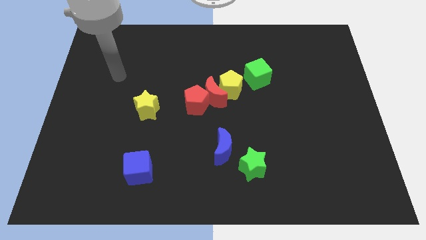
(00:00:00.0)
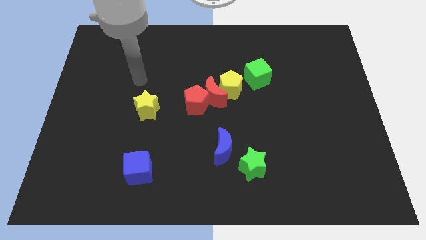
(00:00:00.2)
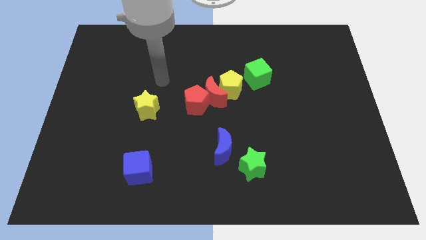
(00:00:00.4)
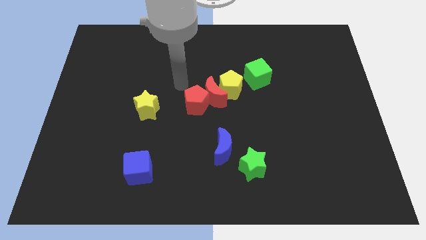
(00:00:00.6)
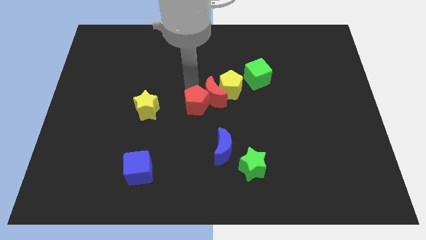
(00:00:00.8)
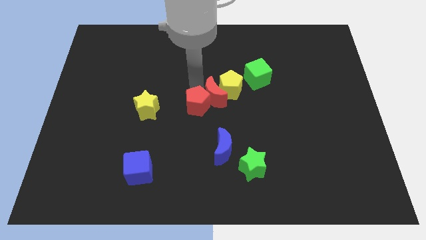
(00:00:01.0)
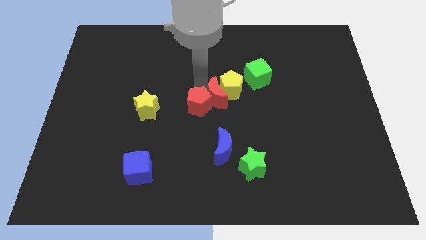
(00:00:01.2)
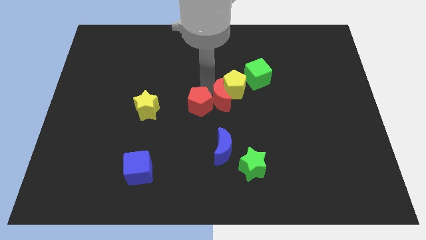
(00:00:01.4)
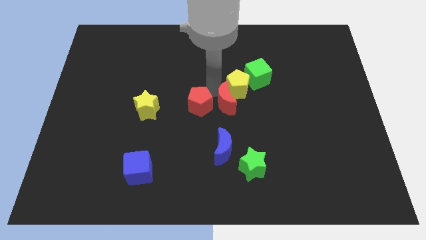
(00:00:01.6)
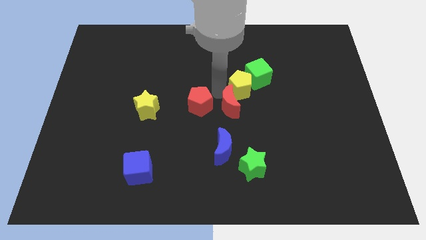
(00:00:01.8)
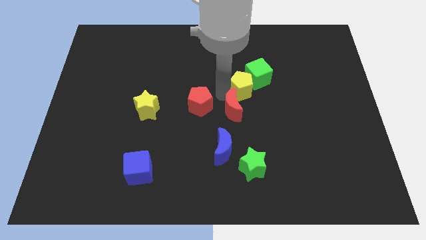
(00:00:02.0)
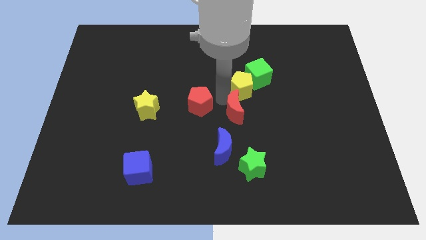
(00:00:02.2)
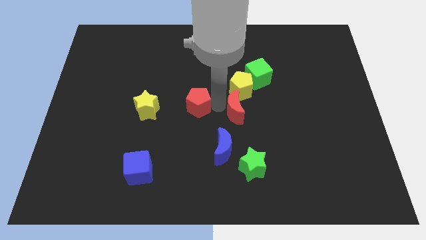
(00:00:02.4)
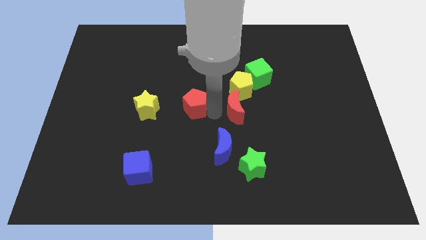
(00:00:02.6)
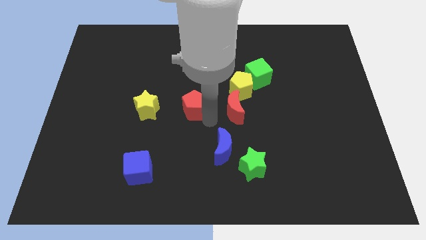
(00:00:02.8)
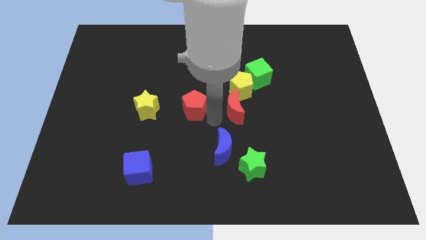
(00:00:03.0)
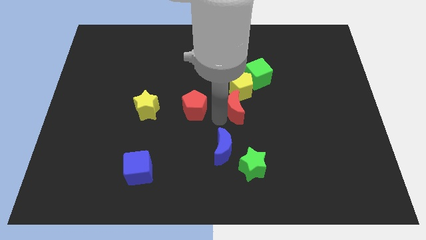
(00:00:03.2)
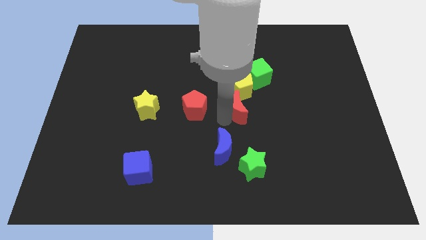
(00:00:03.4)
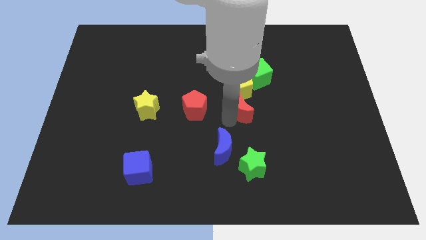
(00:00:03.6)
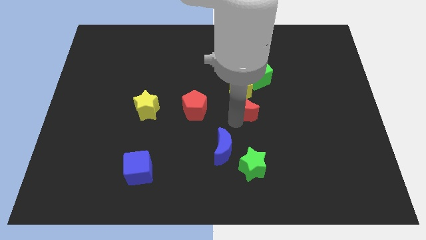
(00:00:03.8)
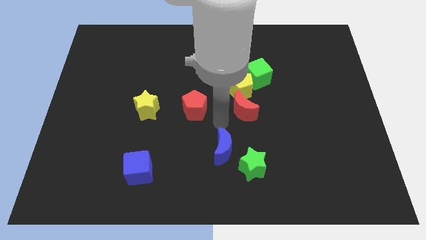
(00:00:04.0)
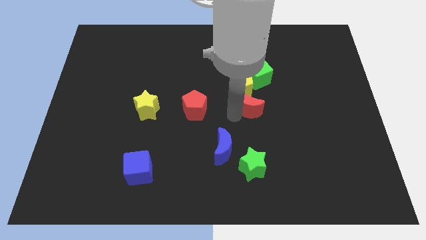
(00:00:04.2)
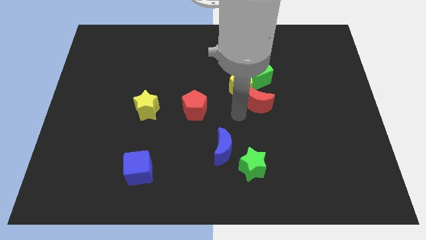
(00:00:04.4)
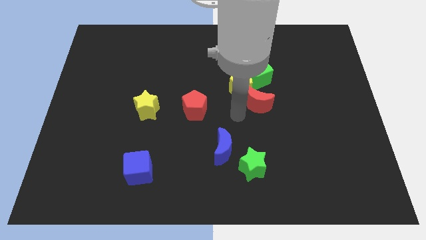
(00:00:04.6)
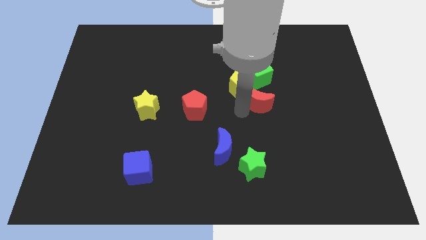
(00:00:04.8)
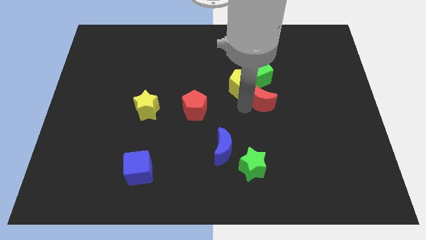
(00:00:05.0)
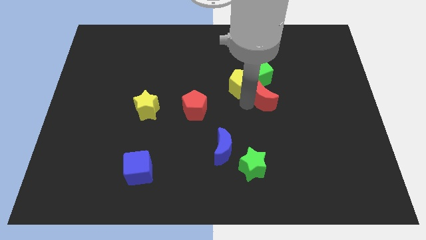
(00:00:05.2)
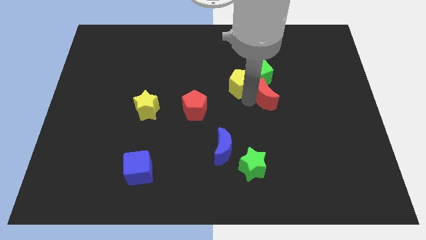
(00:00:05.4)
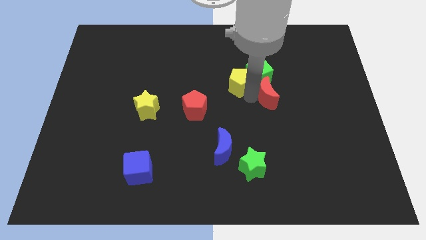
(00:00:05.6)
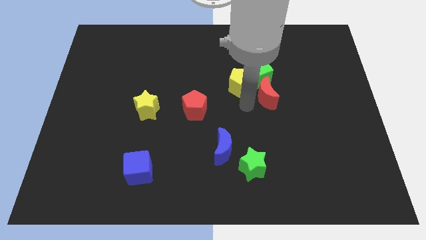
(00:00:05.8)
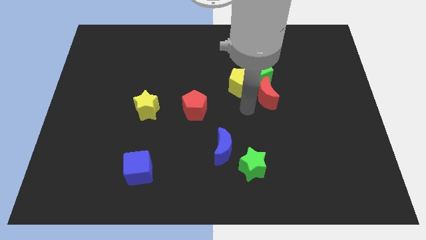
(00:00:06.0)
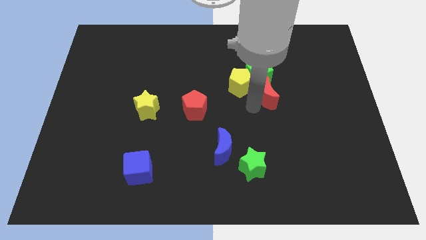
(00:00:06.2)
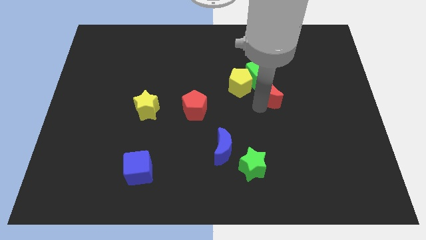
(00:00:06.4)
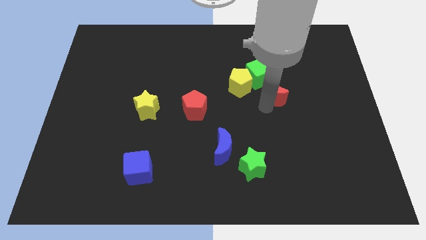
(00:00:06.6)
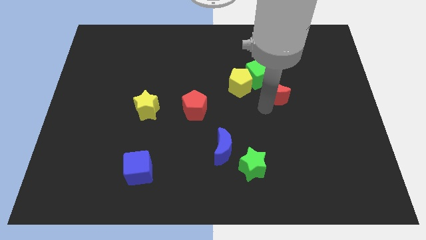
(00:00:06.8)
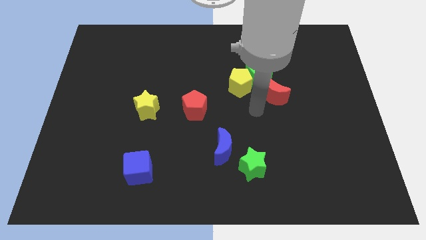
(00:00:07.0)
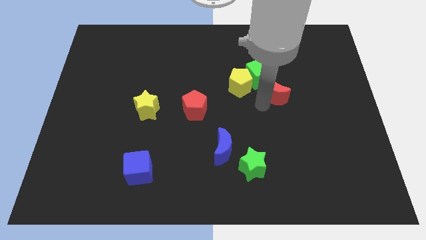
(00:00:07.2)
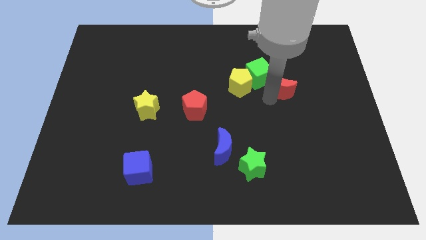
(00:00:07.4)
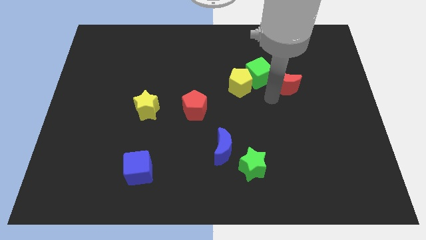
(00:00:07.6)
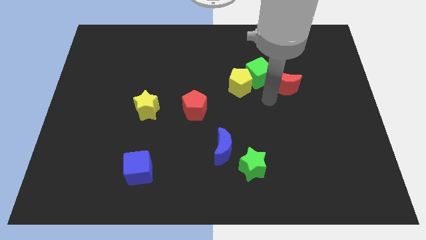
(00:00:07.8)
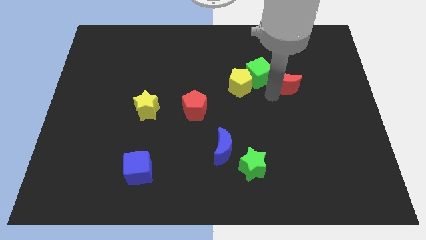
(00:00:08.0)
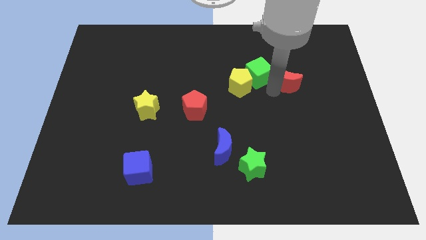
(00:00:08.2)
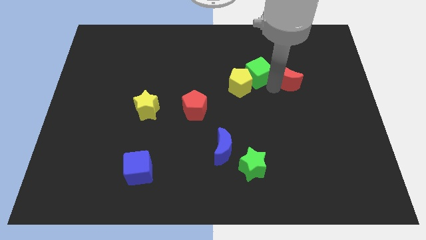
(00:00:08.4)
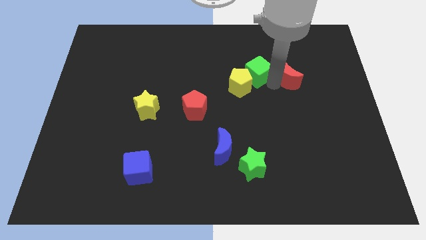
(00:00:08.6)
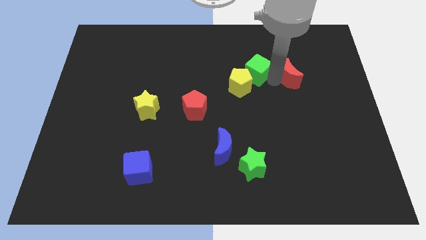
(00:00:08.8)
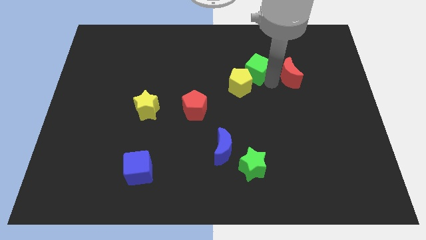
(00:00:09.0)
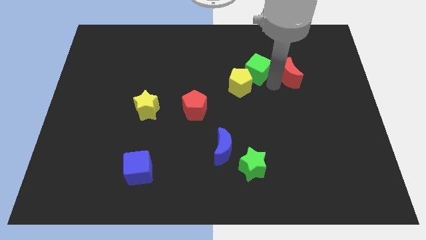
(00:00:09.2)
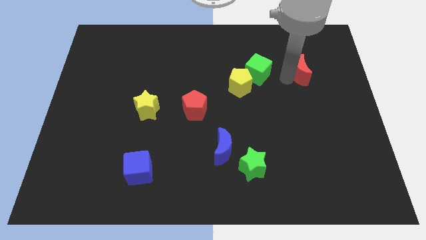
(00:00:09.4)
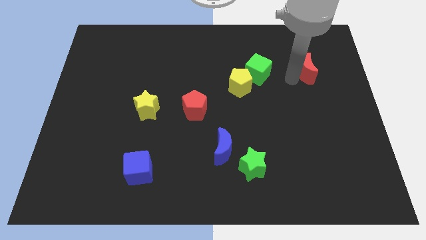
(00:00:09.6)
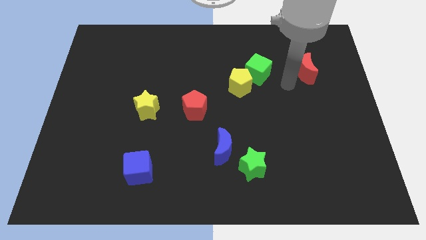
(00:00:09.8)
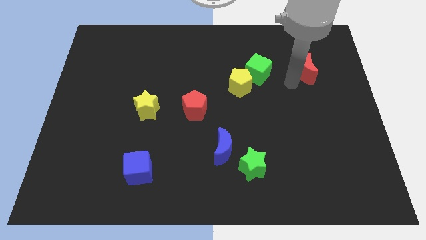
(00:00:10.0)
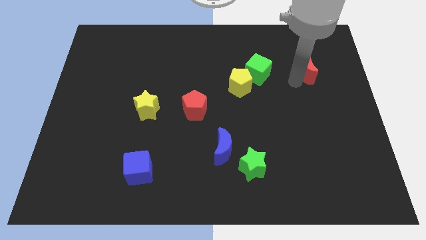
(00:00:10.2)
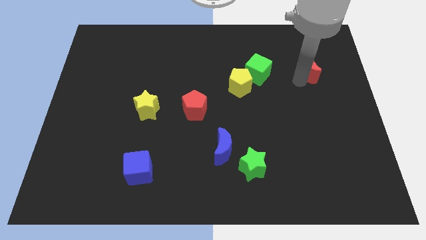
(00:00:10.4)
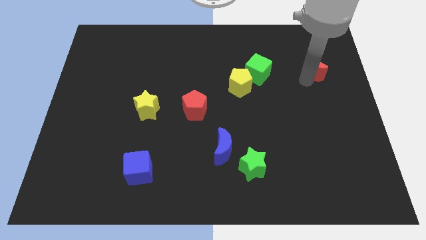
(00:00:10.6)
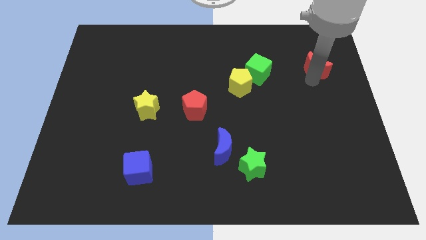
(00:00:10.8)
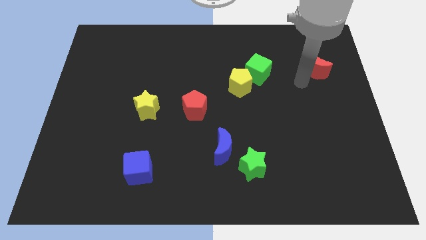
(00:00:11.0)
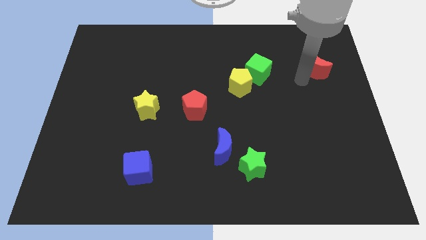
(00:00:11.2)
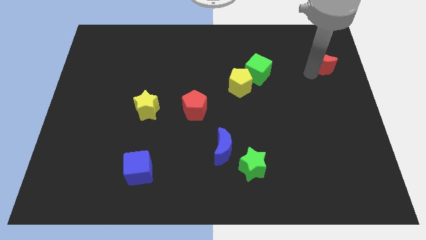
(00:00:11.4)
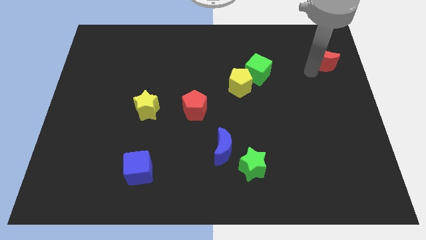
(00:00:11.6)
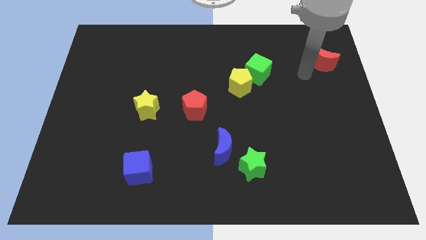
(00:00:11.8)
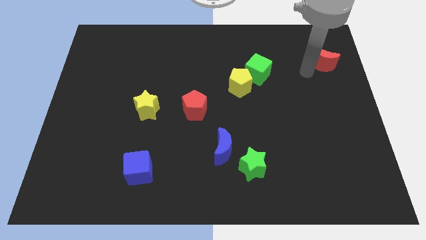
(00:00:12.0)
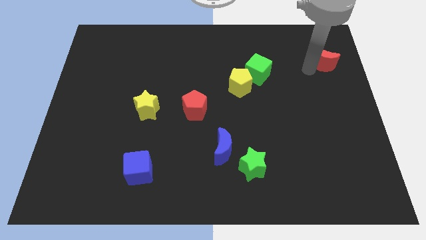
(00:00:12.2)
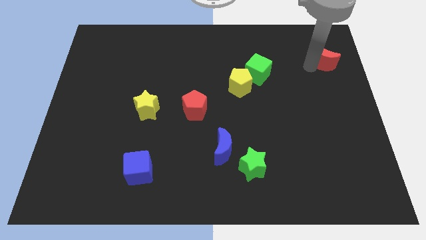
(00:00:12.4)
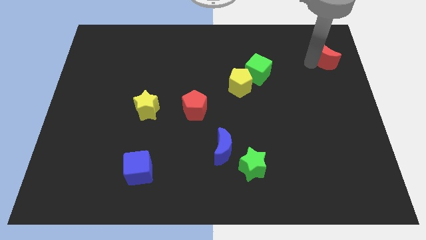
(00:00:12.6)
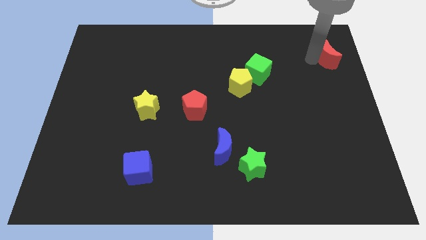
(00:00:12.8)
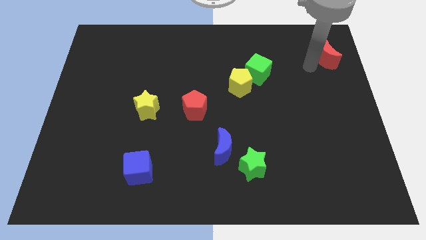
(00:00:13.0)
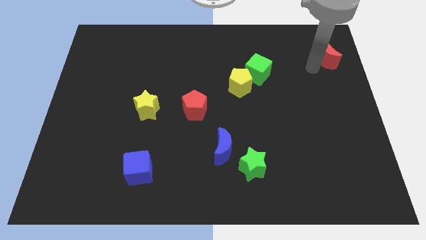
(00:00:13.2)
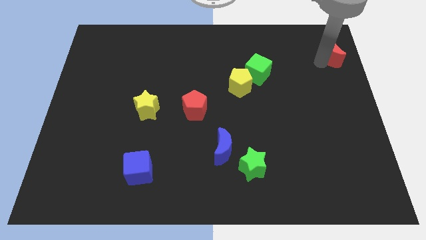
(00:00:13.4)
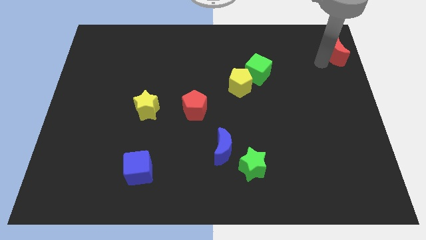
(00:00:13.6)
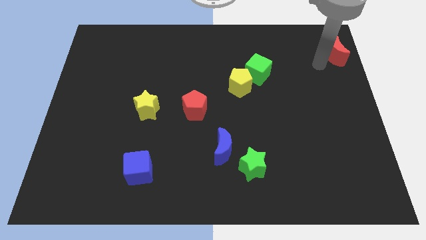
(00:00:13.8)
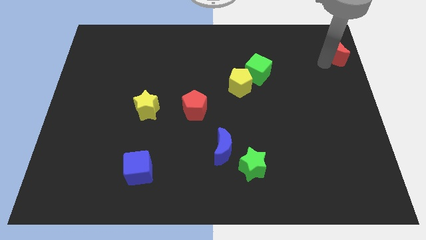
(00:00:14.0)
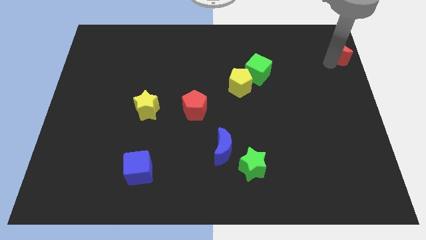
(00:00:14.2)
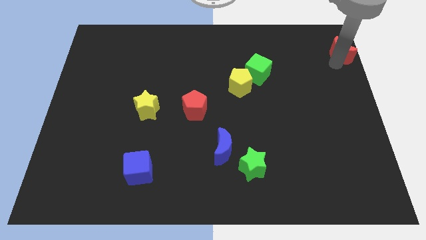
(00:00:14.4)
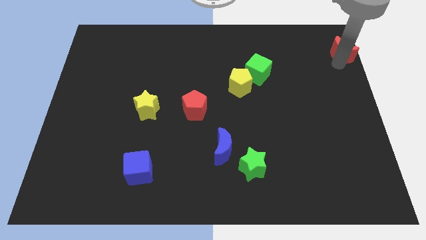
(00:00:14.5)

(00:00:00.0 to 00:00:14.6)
push the red moon to the top right of the board
